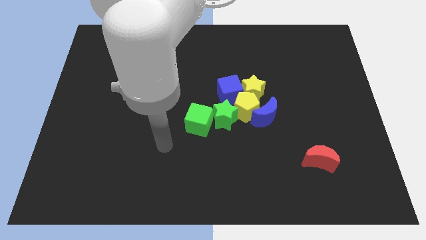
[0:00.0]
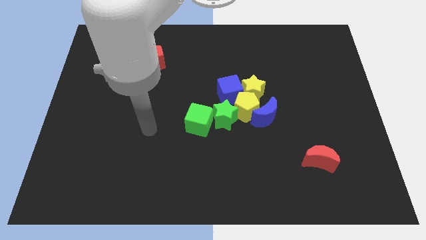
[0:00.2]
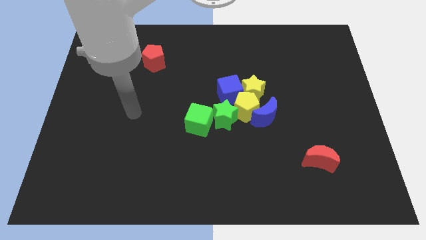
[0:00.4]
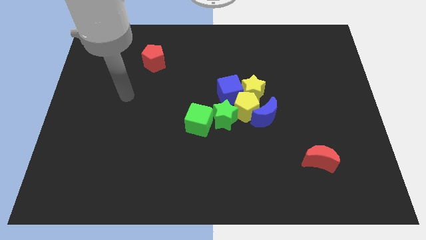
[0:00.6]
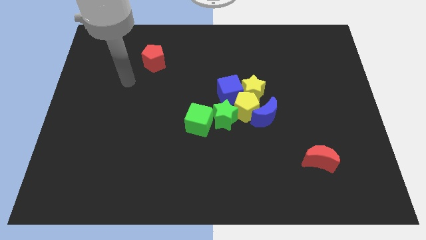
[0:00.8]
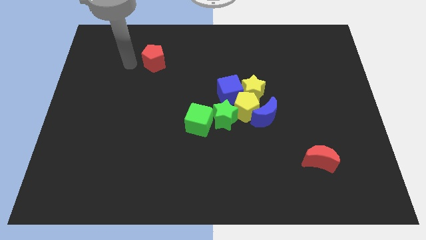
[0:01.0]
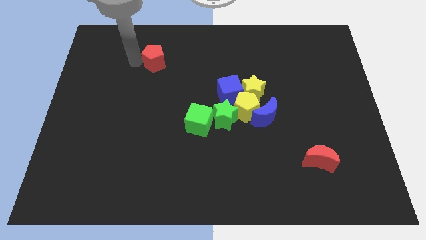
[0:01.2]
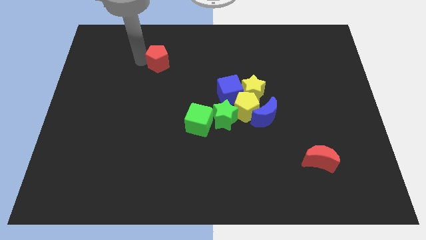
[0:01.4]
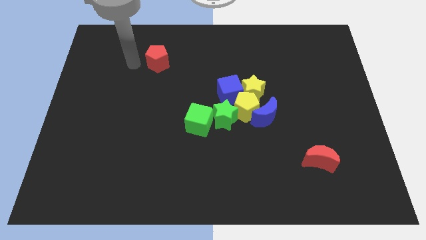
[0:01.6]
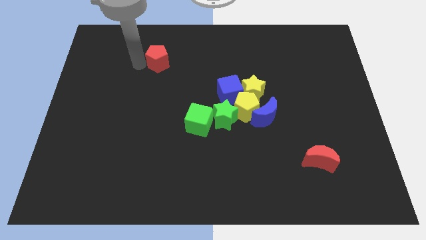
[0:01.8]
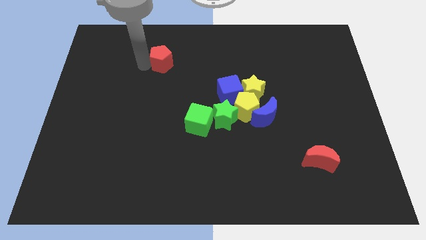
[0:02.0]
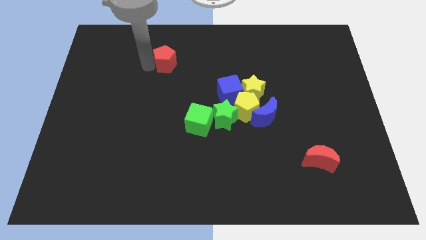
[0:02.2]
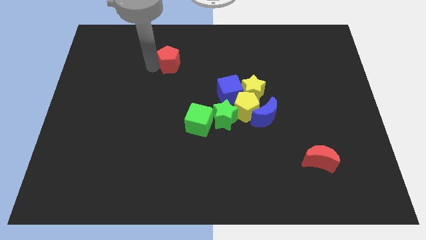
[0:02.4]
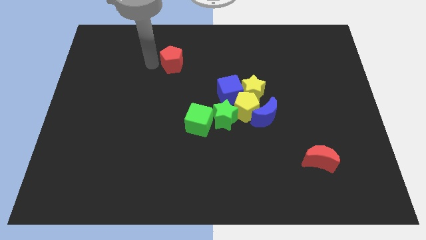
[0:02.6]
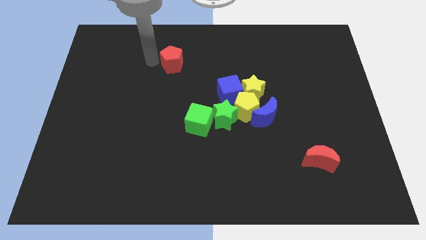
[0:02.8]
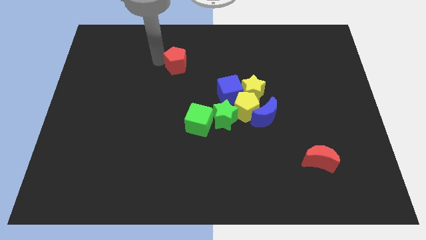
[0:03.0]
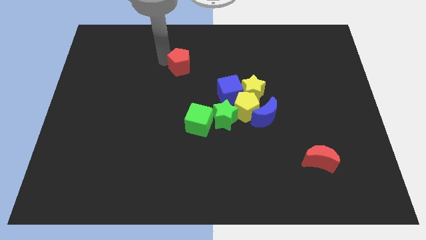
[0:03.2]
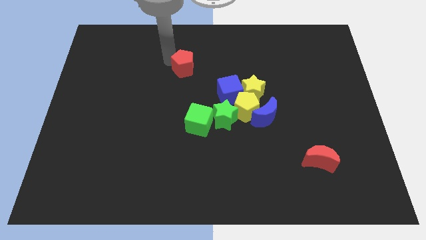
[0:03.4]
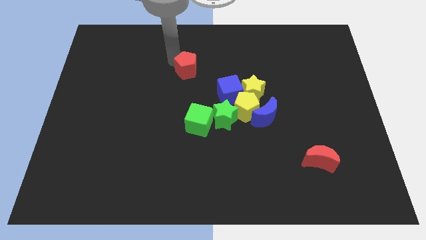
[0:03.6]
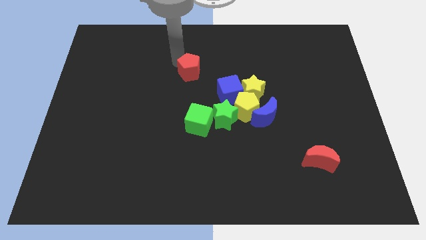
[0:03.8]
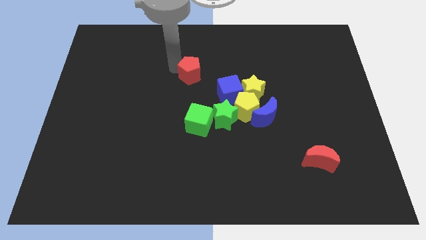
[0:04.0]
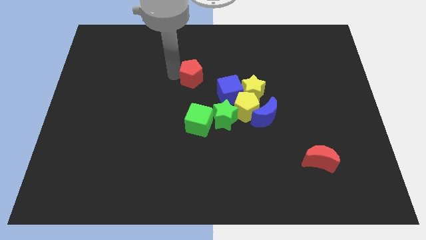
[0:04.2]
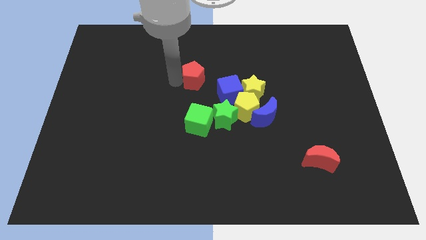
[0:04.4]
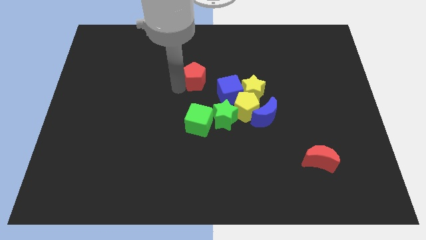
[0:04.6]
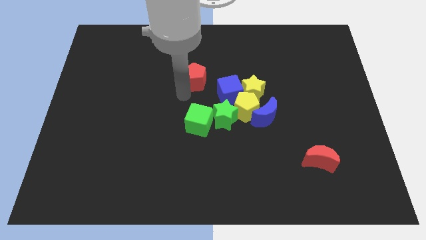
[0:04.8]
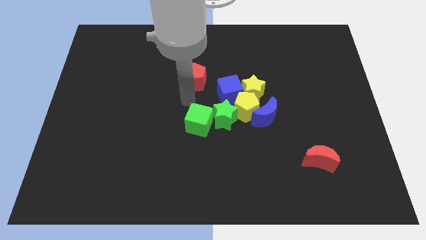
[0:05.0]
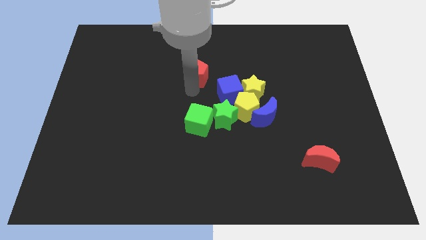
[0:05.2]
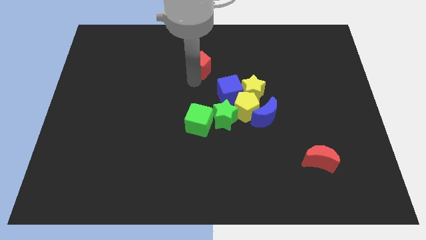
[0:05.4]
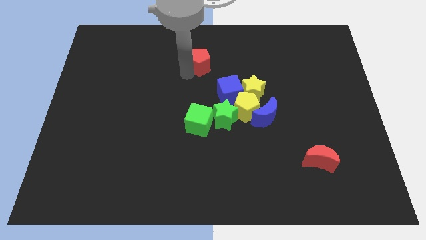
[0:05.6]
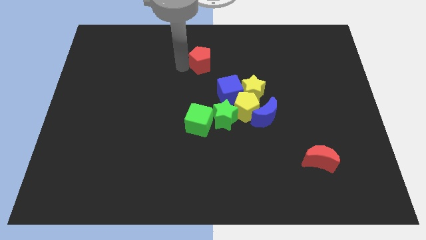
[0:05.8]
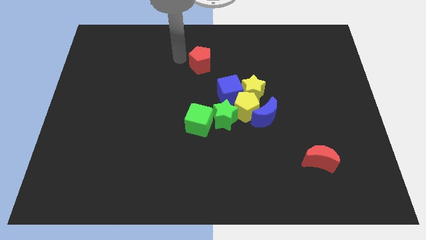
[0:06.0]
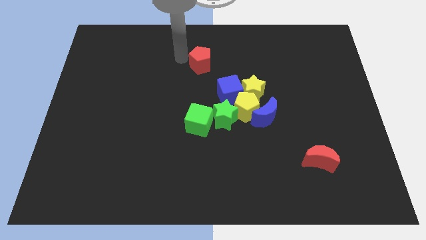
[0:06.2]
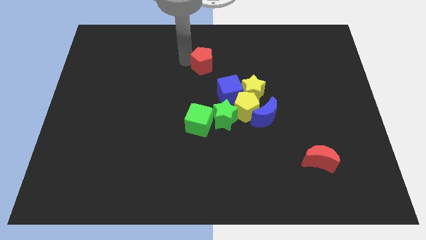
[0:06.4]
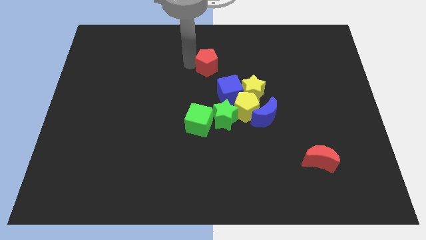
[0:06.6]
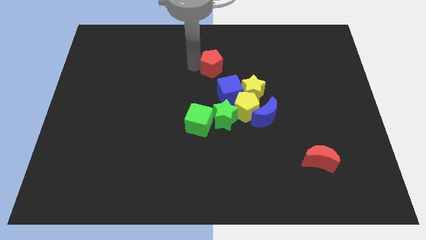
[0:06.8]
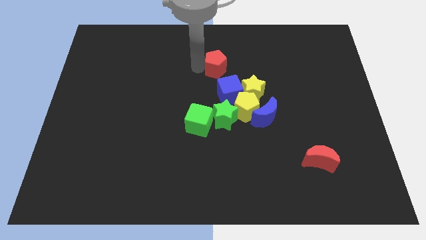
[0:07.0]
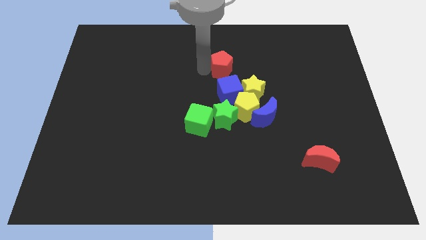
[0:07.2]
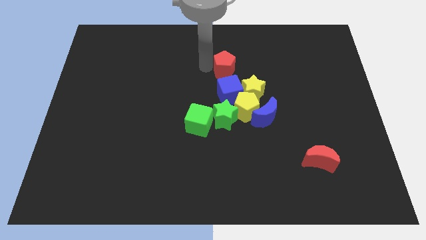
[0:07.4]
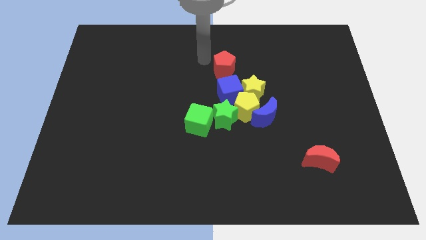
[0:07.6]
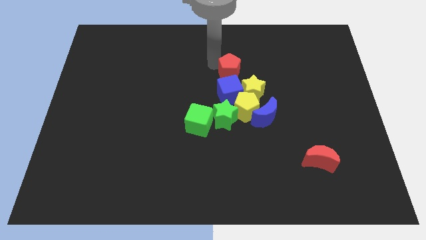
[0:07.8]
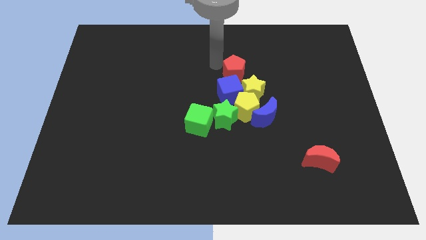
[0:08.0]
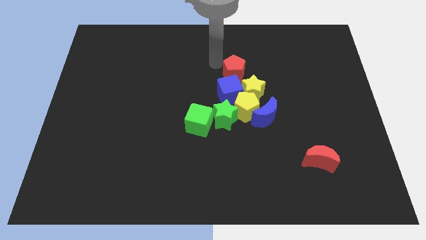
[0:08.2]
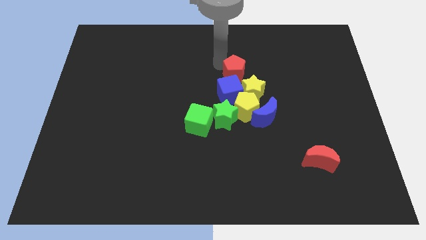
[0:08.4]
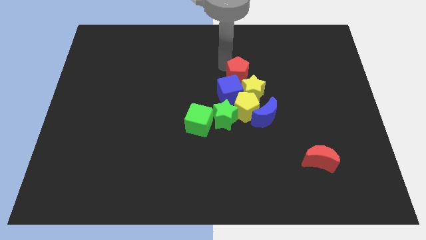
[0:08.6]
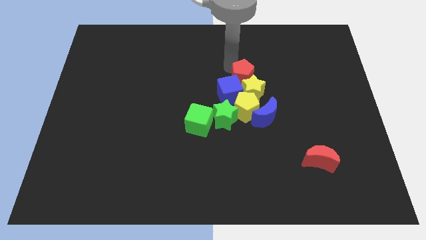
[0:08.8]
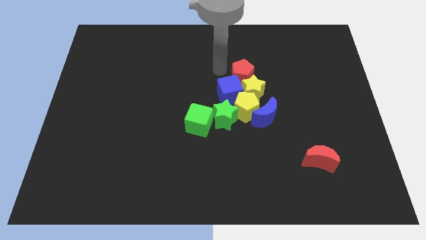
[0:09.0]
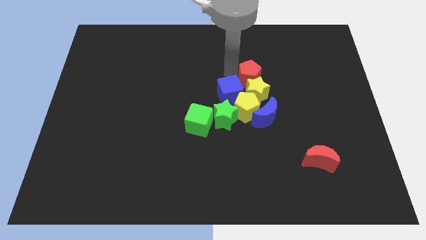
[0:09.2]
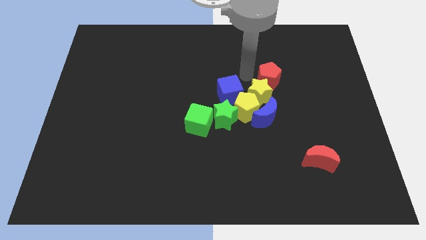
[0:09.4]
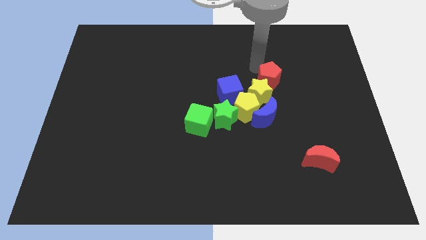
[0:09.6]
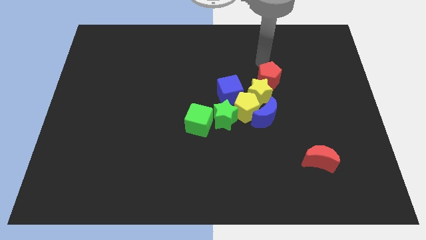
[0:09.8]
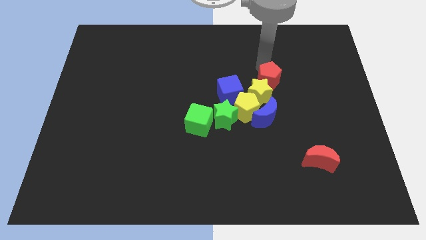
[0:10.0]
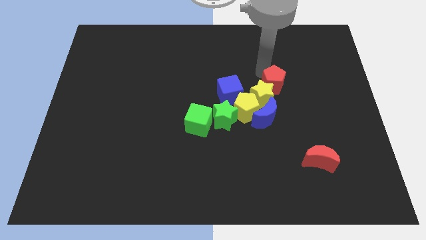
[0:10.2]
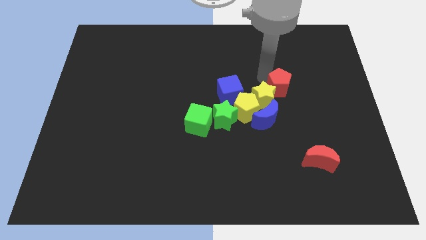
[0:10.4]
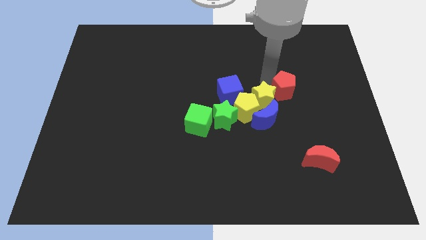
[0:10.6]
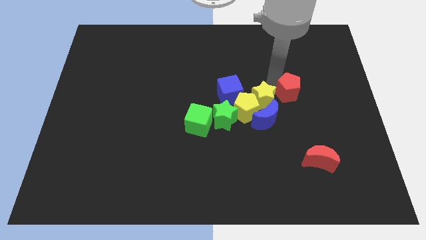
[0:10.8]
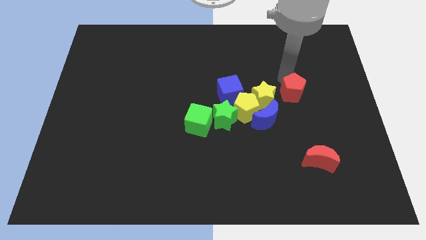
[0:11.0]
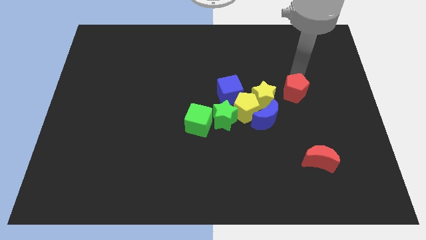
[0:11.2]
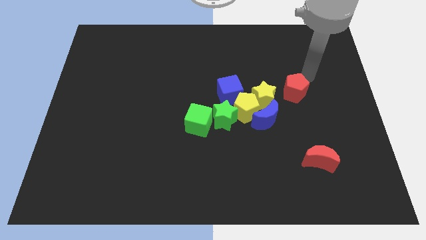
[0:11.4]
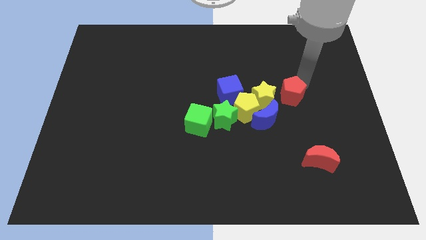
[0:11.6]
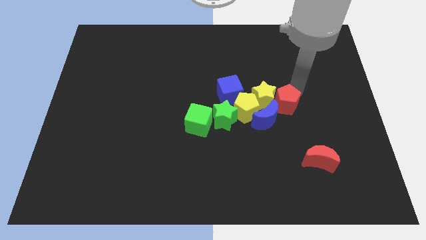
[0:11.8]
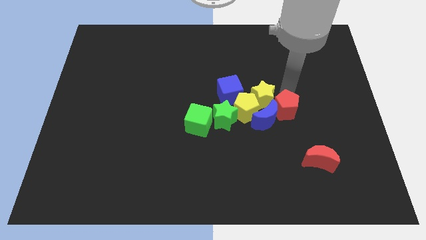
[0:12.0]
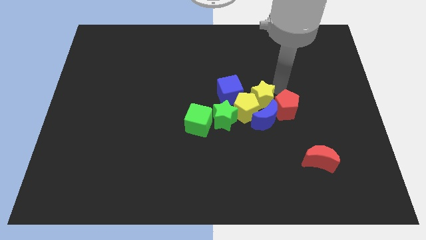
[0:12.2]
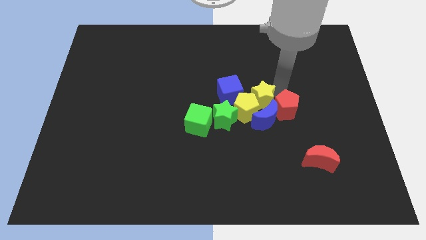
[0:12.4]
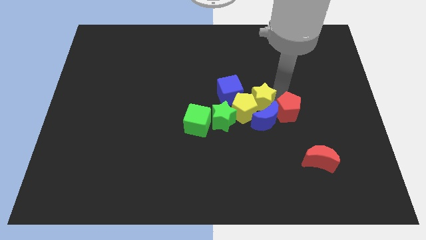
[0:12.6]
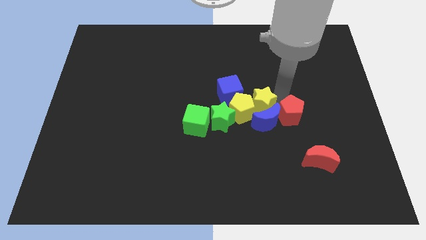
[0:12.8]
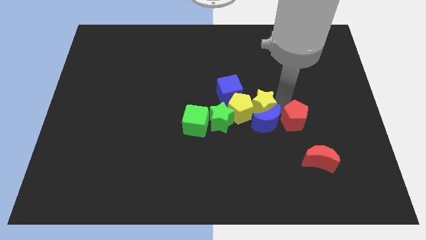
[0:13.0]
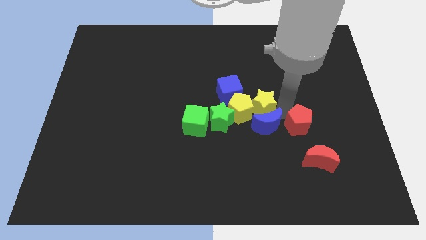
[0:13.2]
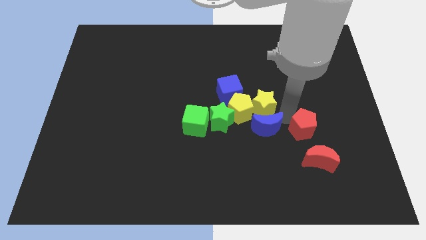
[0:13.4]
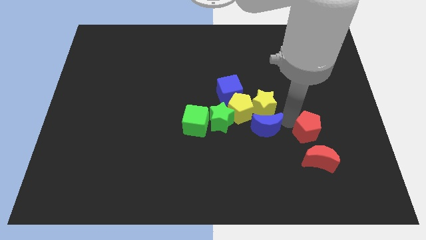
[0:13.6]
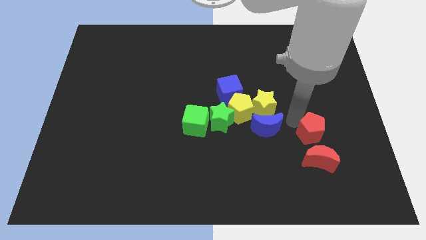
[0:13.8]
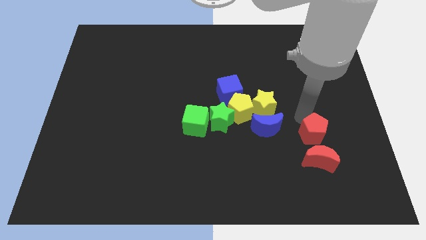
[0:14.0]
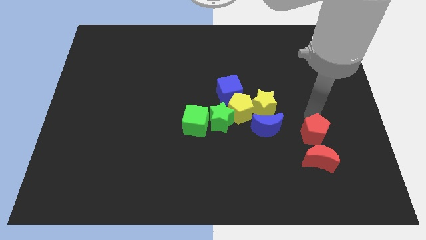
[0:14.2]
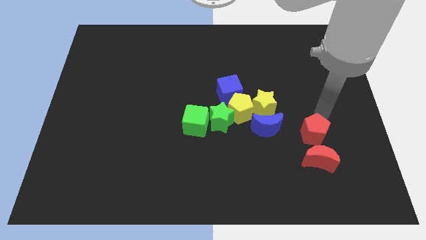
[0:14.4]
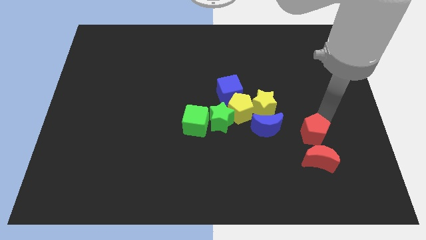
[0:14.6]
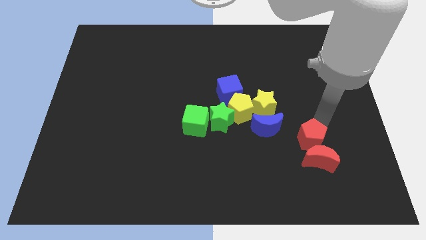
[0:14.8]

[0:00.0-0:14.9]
put the red pentagon close to the red moon

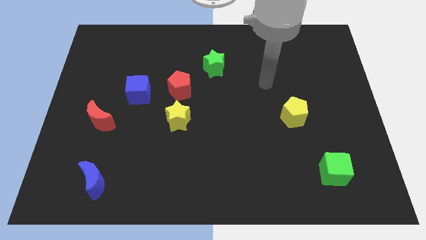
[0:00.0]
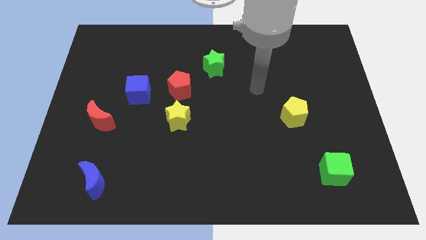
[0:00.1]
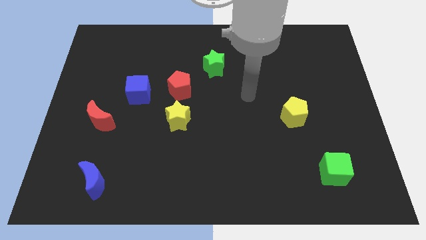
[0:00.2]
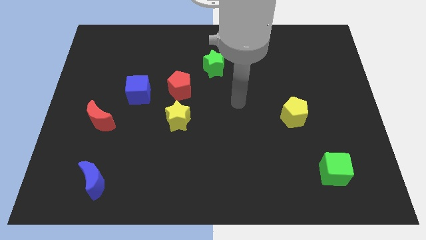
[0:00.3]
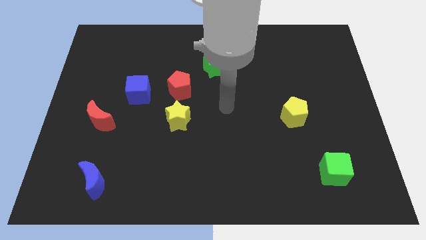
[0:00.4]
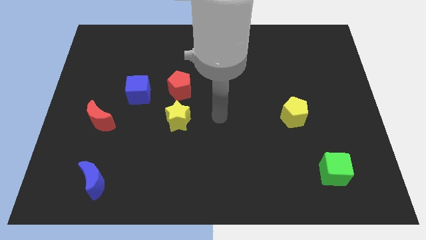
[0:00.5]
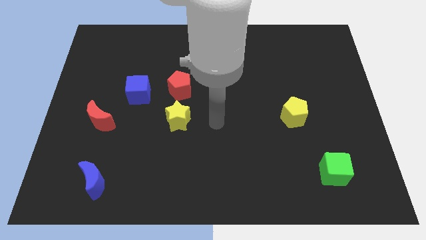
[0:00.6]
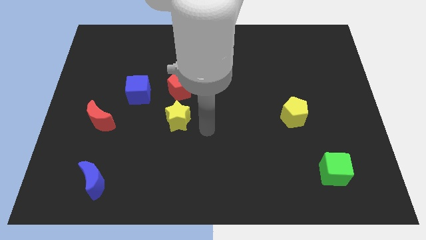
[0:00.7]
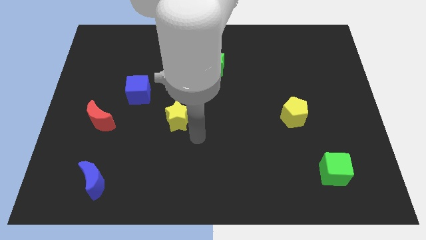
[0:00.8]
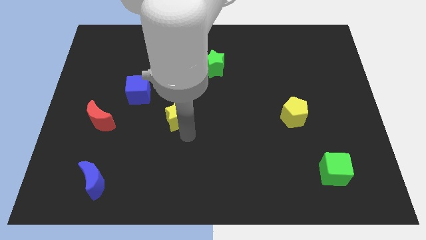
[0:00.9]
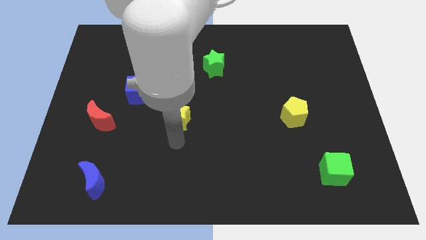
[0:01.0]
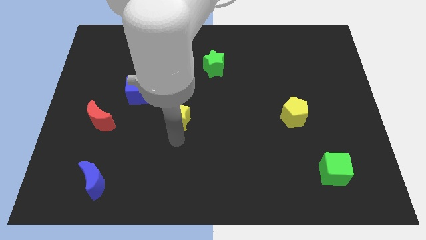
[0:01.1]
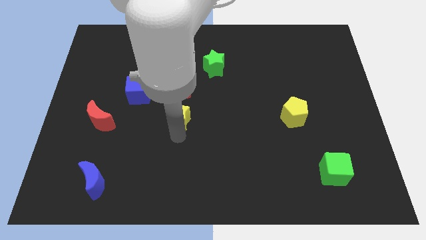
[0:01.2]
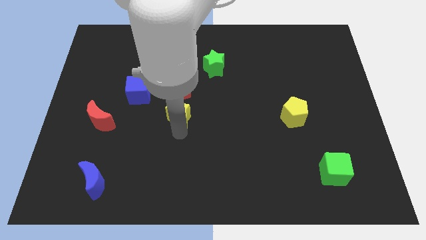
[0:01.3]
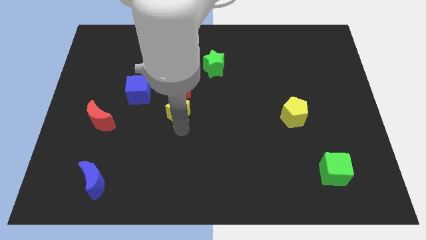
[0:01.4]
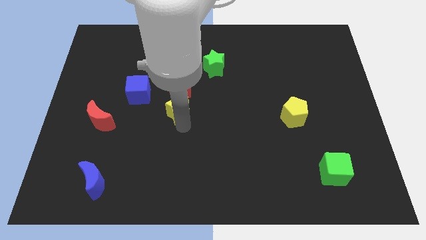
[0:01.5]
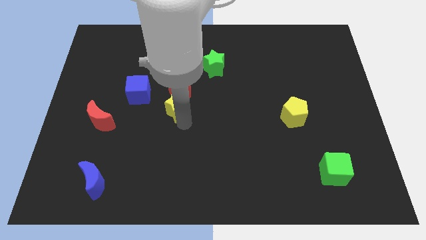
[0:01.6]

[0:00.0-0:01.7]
put the yellow star towards the red pentagon
